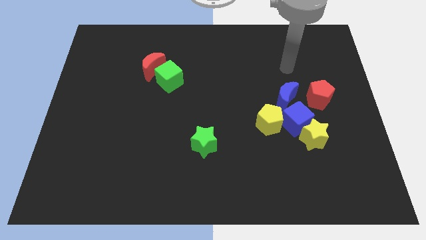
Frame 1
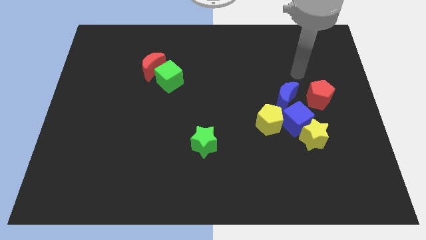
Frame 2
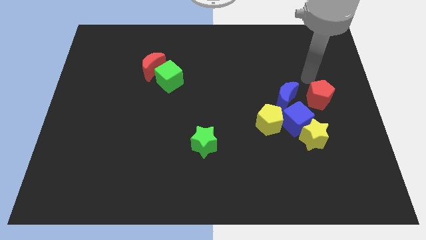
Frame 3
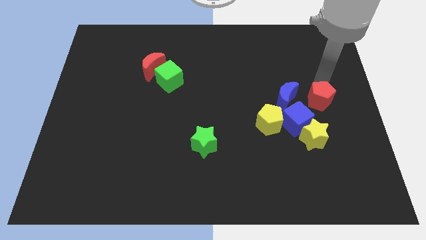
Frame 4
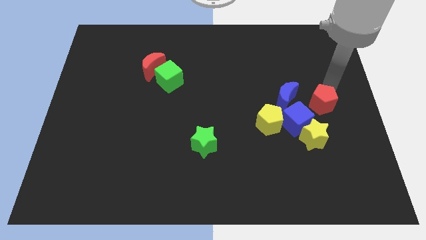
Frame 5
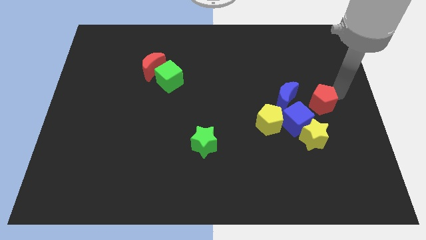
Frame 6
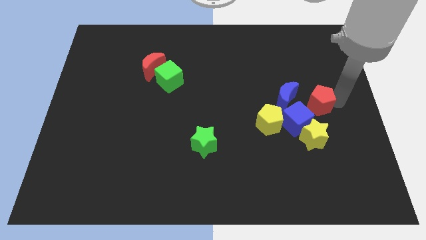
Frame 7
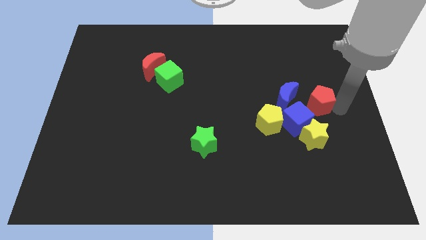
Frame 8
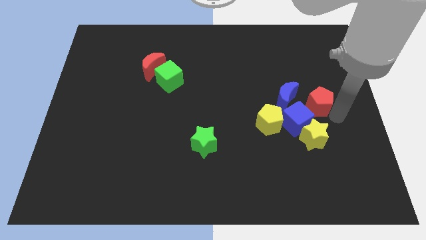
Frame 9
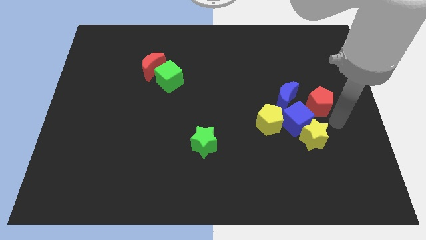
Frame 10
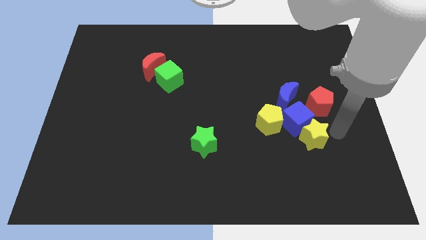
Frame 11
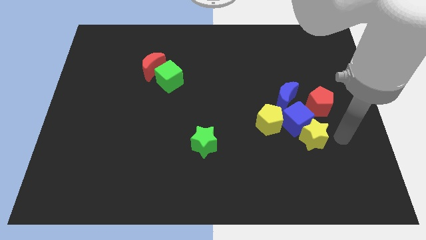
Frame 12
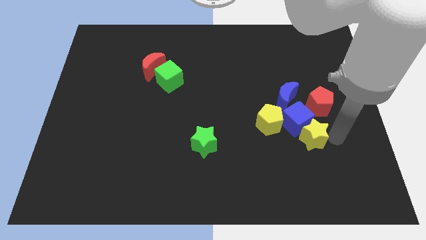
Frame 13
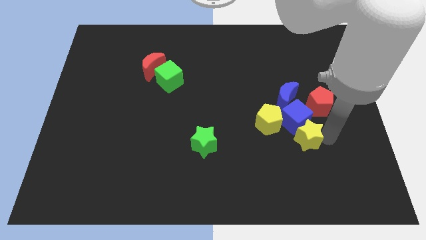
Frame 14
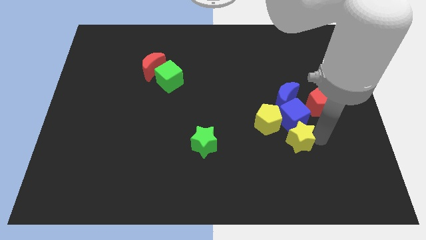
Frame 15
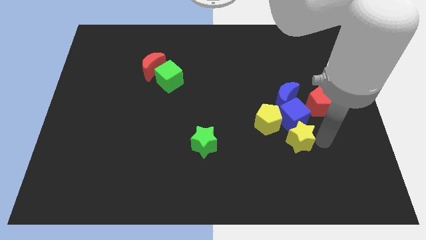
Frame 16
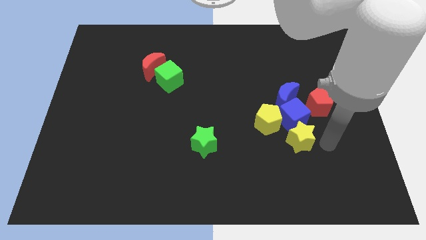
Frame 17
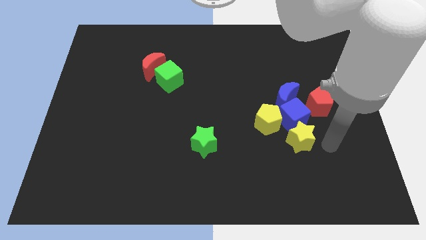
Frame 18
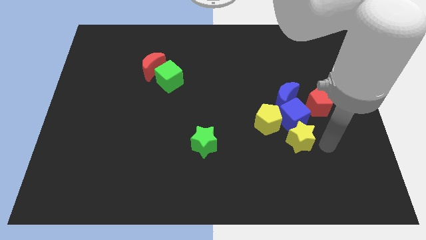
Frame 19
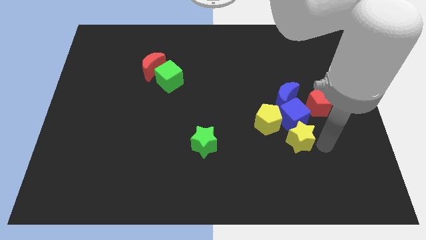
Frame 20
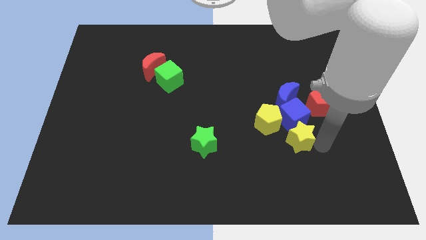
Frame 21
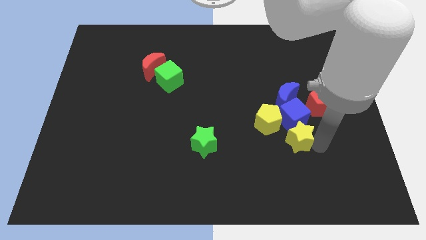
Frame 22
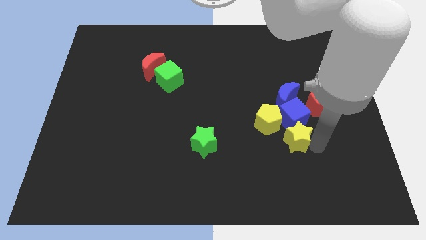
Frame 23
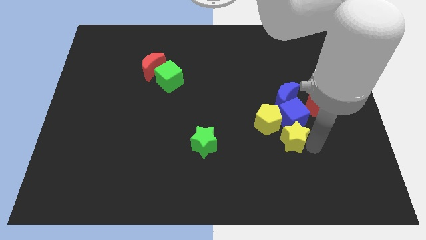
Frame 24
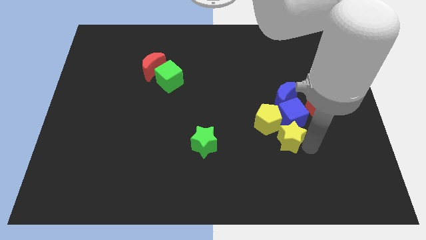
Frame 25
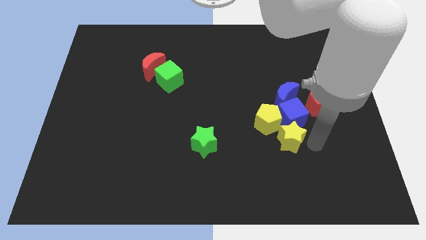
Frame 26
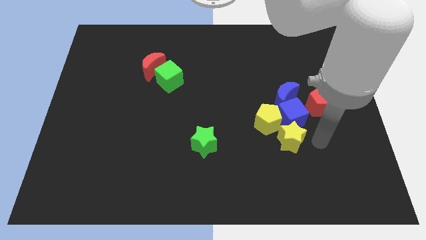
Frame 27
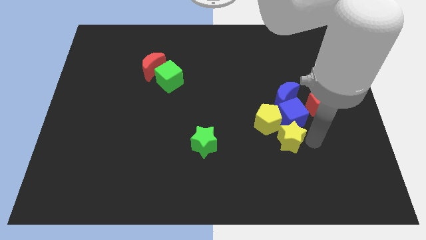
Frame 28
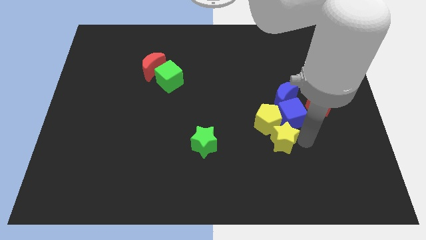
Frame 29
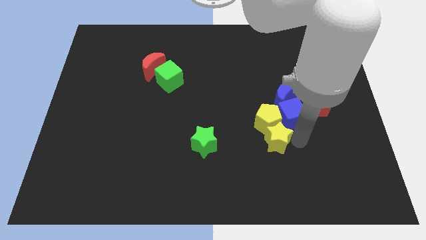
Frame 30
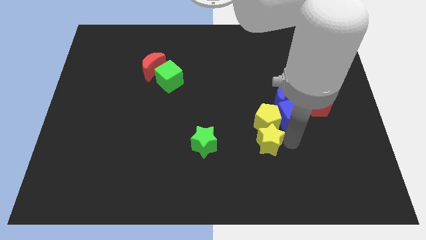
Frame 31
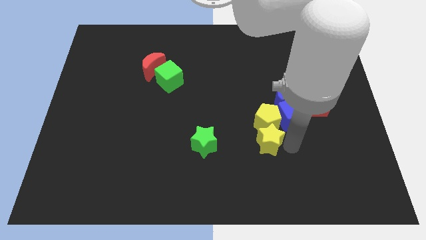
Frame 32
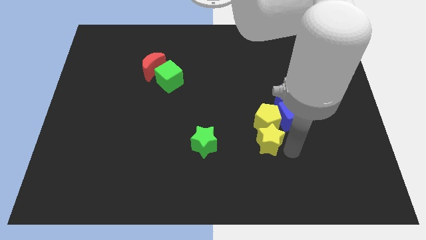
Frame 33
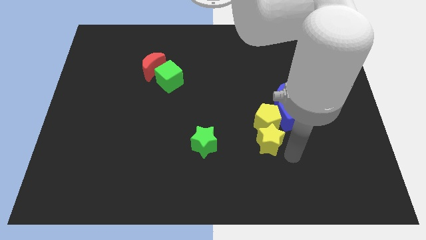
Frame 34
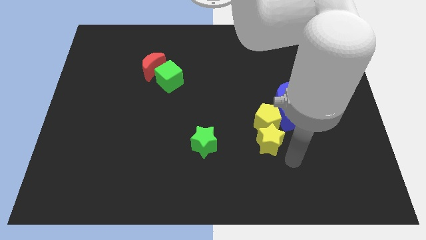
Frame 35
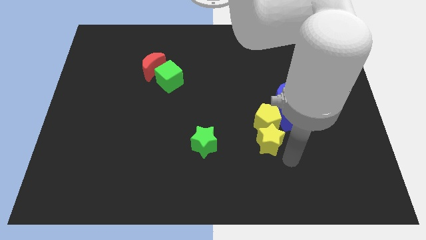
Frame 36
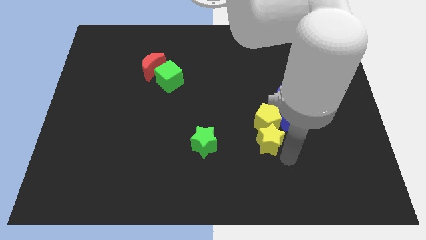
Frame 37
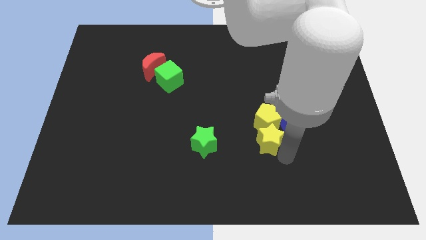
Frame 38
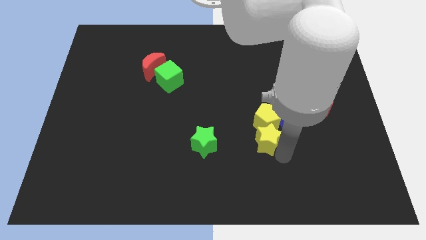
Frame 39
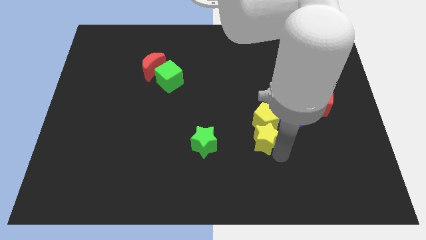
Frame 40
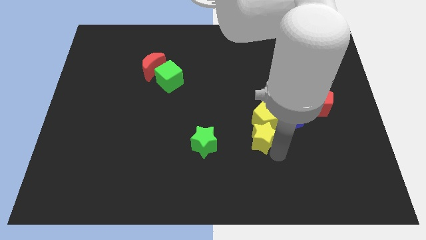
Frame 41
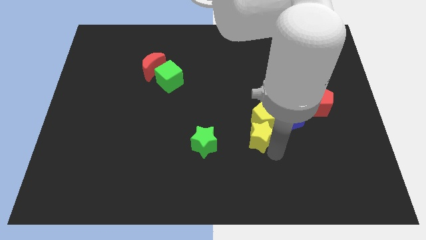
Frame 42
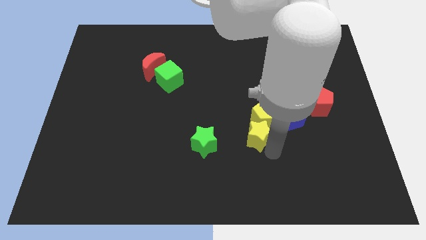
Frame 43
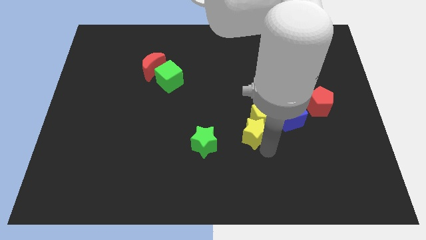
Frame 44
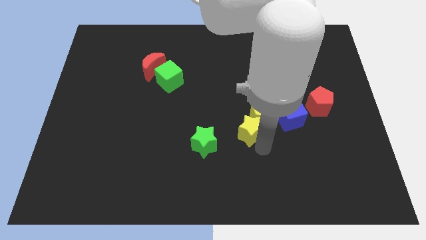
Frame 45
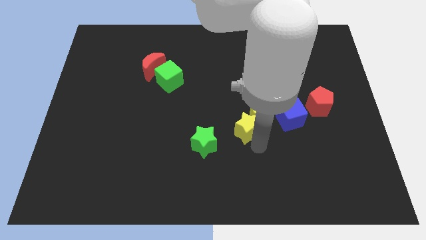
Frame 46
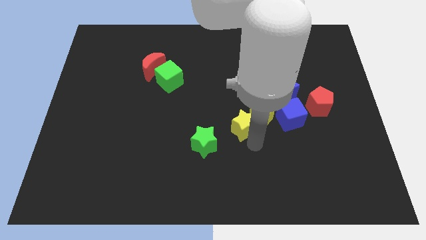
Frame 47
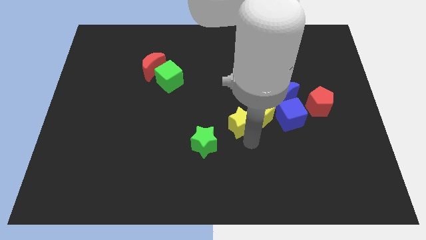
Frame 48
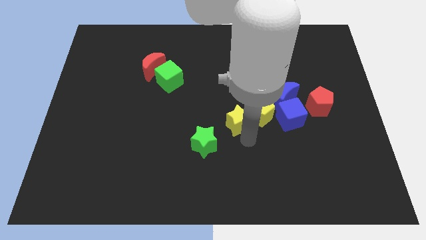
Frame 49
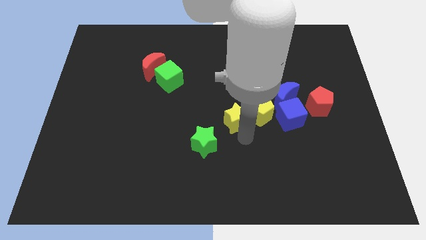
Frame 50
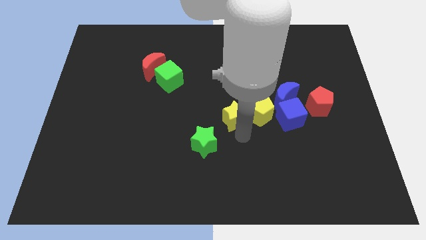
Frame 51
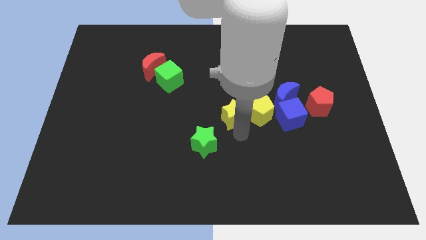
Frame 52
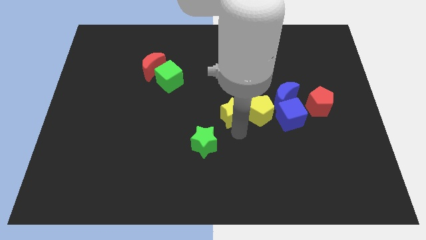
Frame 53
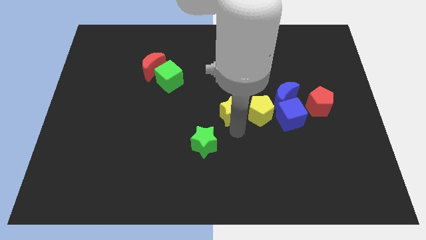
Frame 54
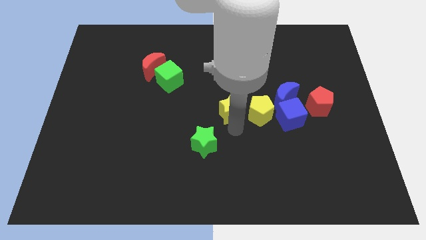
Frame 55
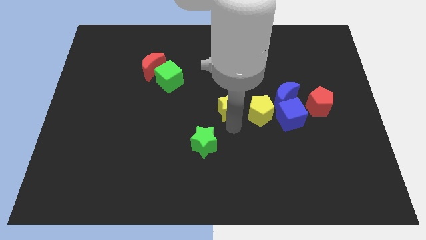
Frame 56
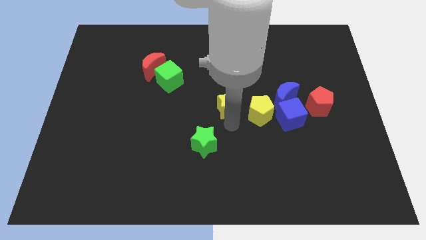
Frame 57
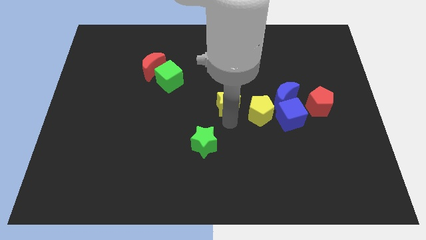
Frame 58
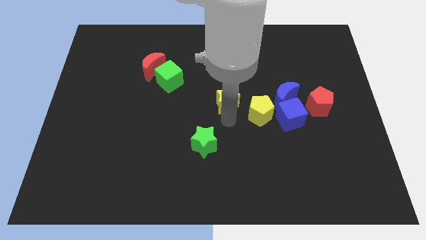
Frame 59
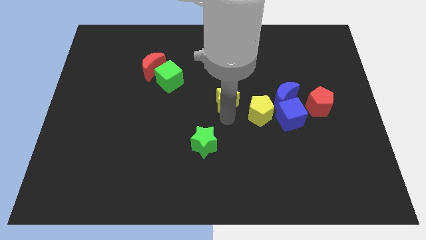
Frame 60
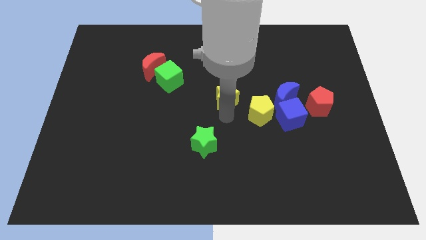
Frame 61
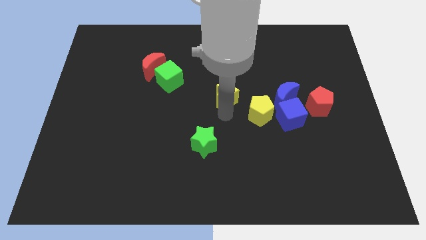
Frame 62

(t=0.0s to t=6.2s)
slide the yellow star upwards and then to the left

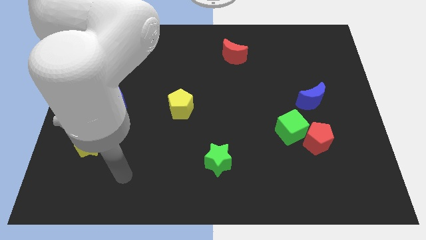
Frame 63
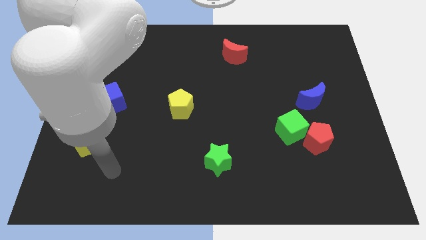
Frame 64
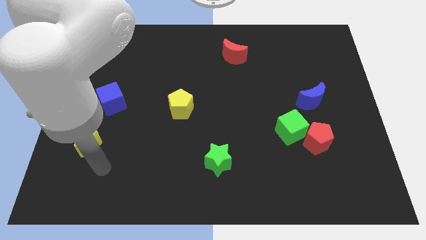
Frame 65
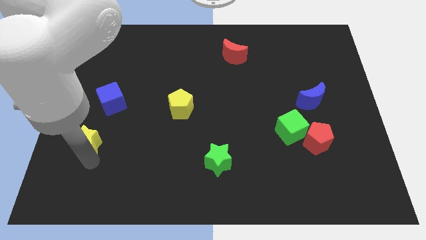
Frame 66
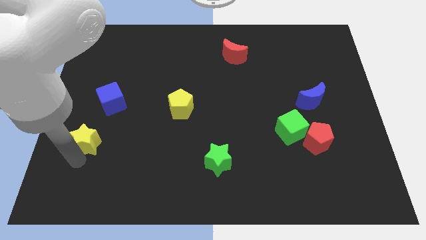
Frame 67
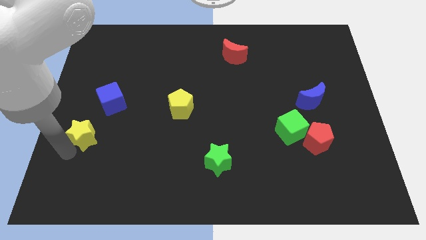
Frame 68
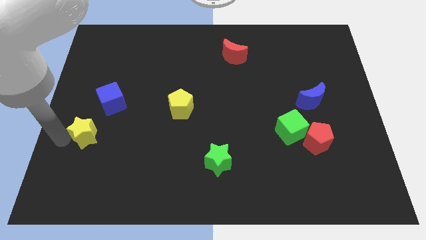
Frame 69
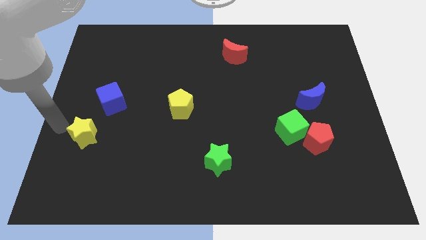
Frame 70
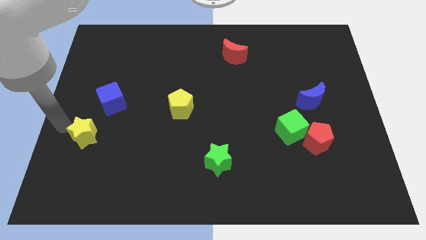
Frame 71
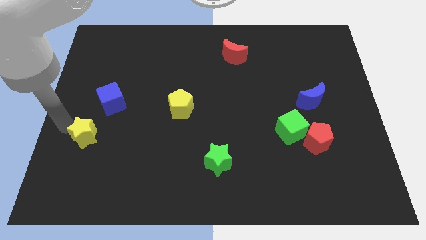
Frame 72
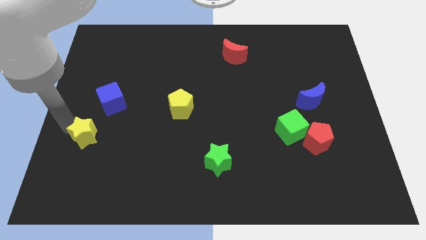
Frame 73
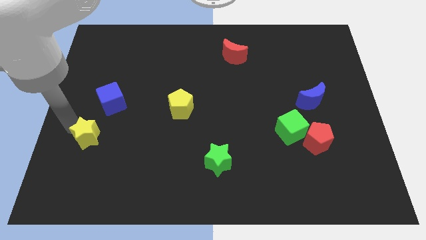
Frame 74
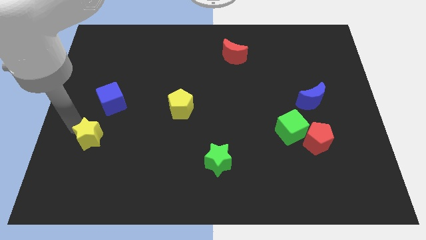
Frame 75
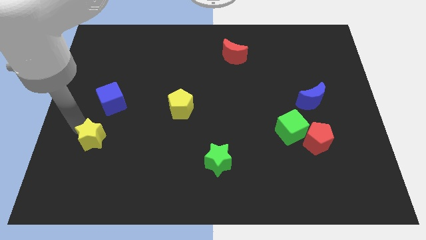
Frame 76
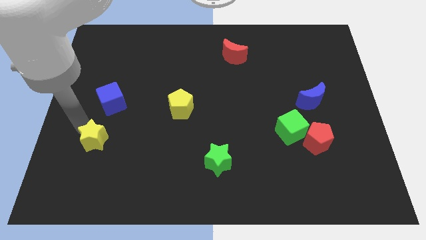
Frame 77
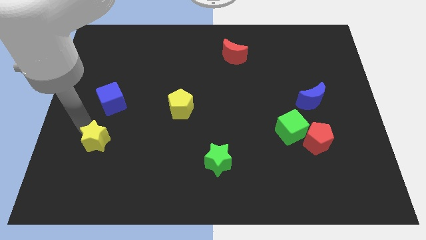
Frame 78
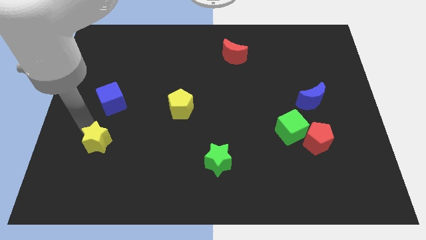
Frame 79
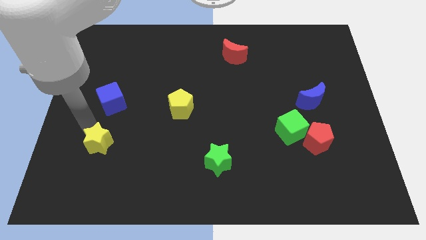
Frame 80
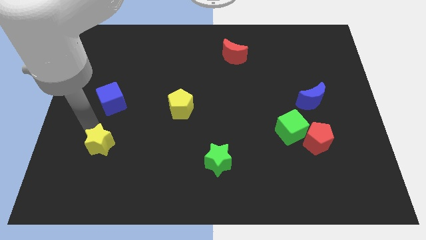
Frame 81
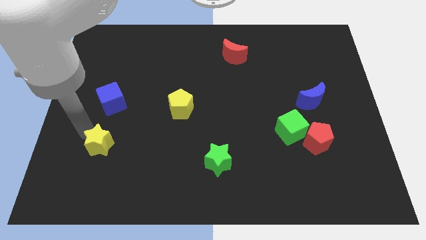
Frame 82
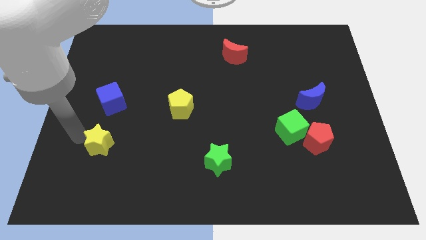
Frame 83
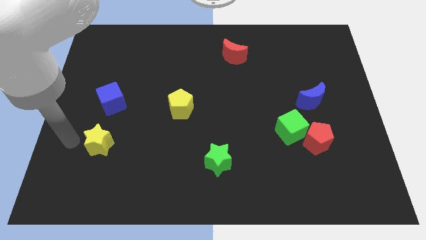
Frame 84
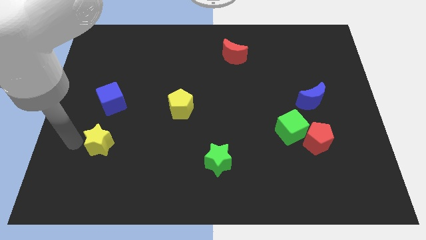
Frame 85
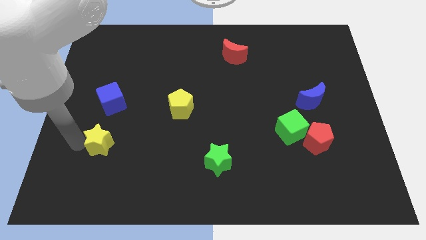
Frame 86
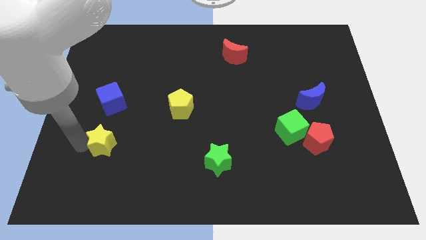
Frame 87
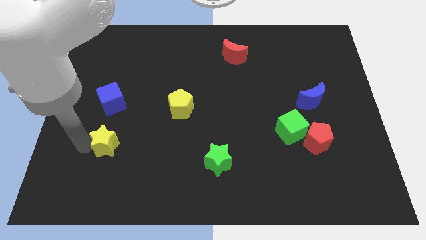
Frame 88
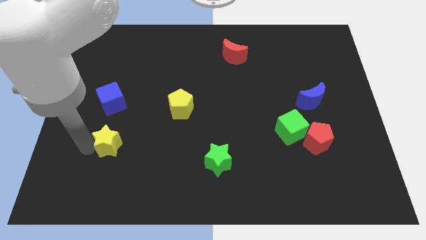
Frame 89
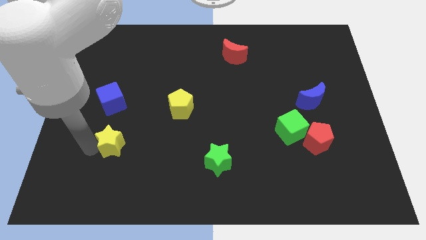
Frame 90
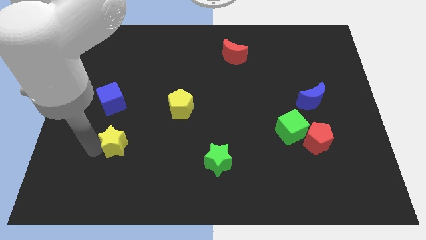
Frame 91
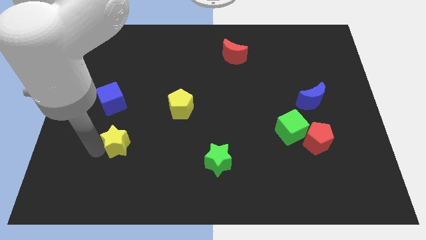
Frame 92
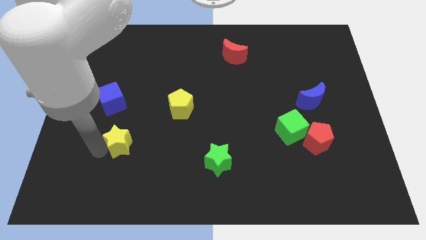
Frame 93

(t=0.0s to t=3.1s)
move the yellow star slightly to the right
